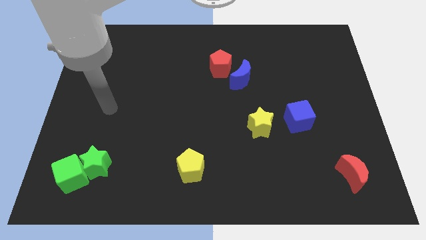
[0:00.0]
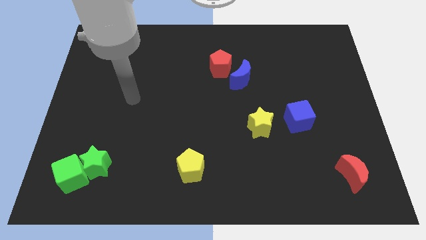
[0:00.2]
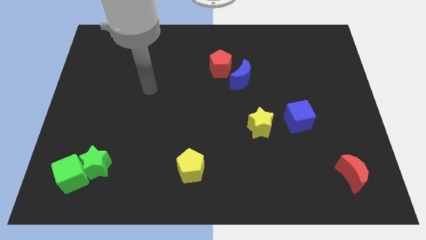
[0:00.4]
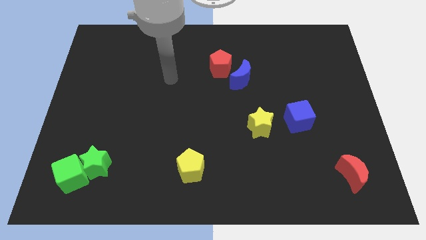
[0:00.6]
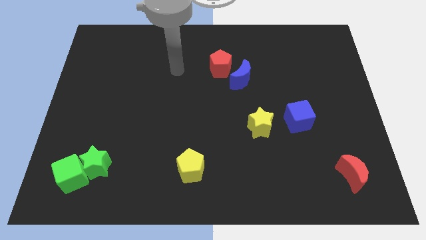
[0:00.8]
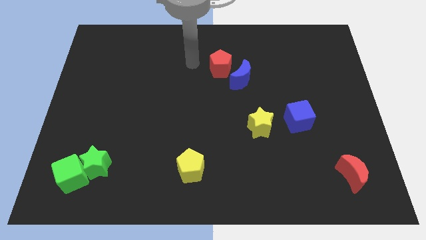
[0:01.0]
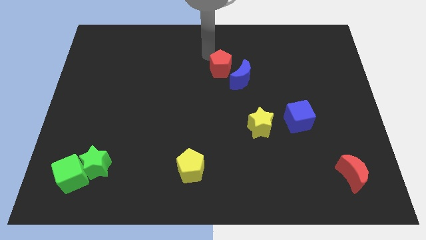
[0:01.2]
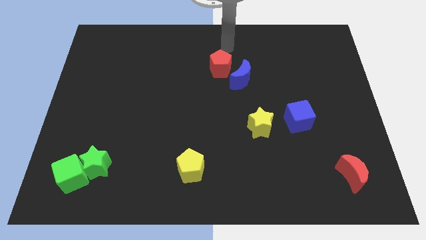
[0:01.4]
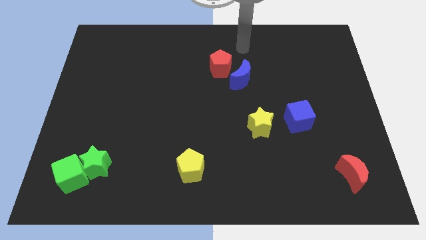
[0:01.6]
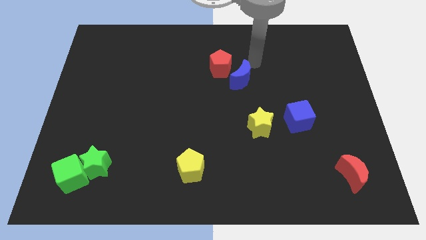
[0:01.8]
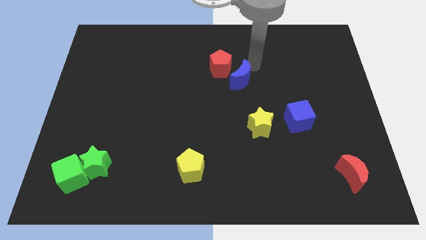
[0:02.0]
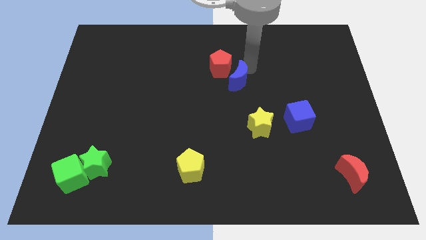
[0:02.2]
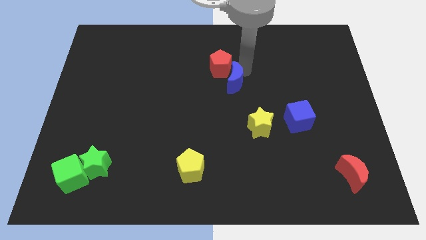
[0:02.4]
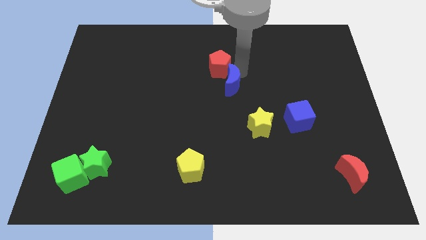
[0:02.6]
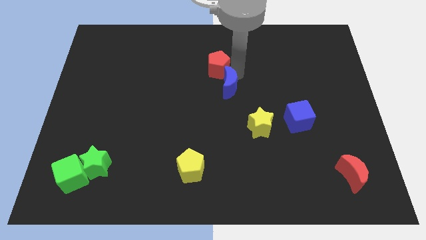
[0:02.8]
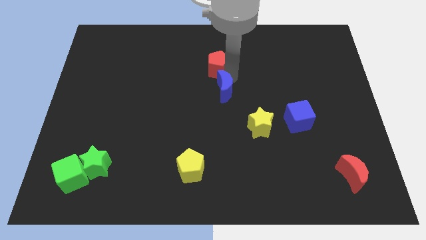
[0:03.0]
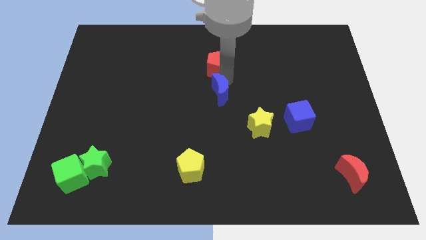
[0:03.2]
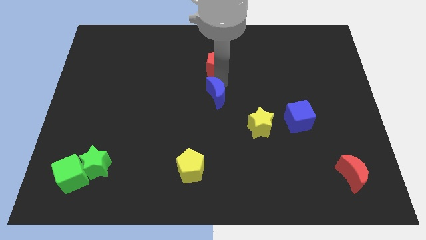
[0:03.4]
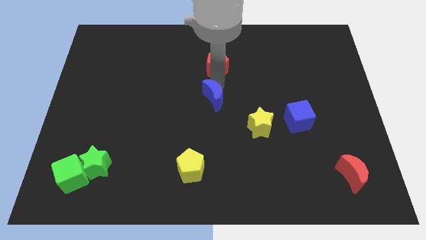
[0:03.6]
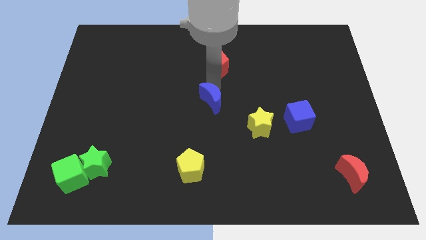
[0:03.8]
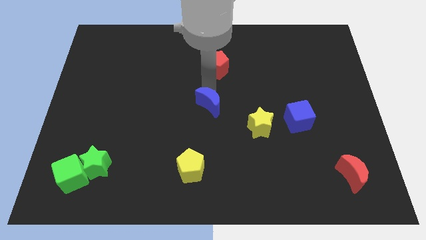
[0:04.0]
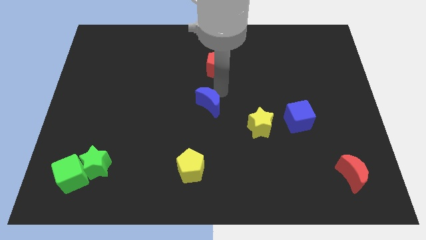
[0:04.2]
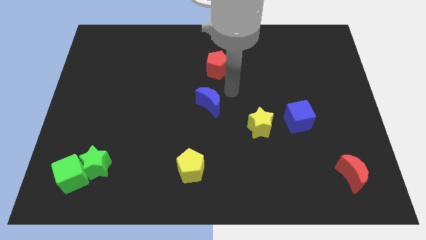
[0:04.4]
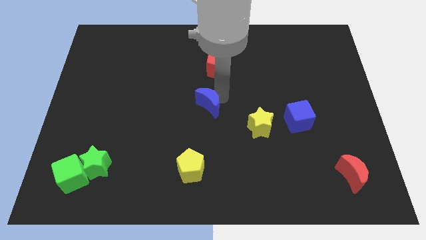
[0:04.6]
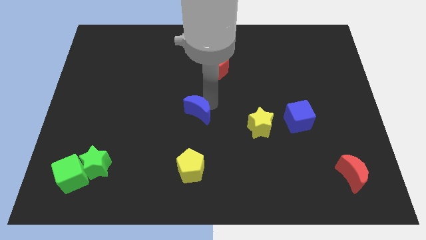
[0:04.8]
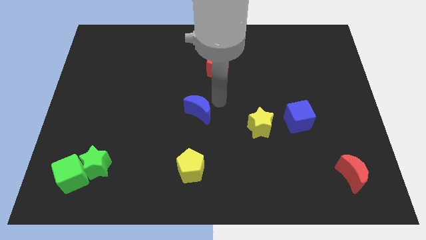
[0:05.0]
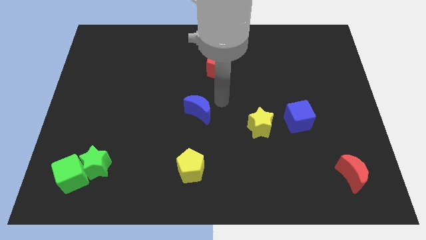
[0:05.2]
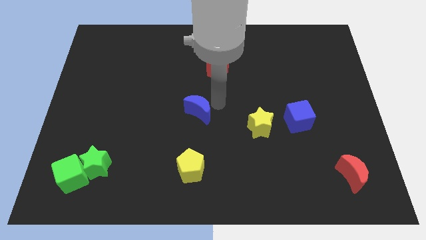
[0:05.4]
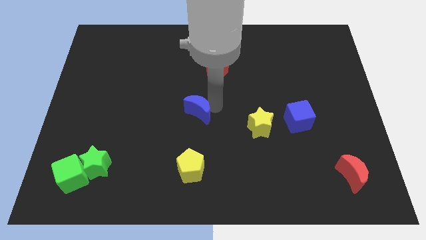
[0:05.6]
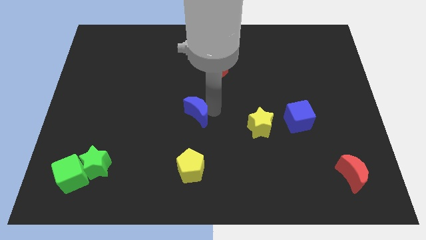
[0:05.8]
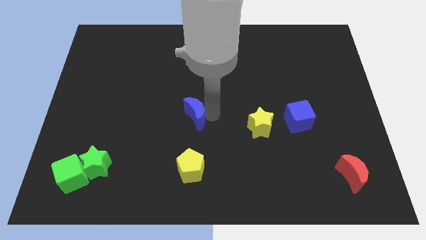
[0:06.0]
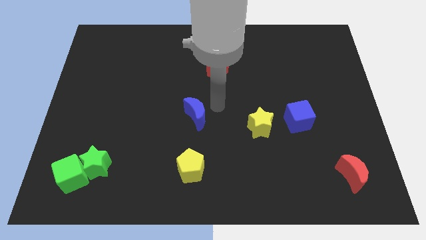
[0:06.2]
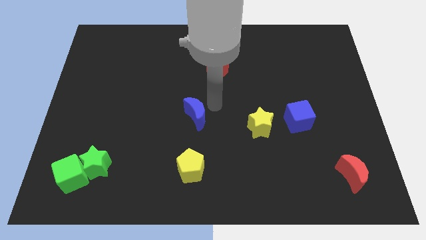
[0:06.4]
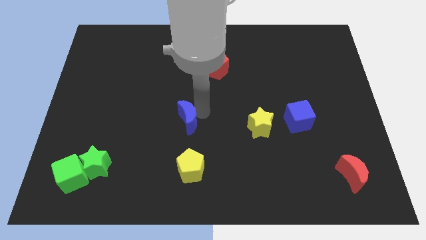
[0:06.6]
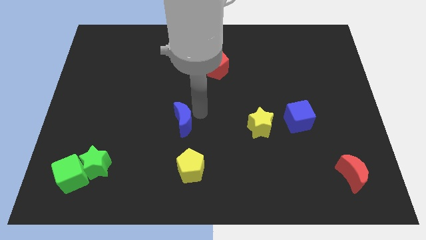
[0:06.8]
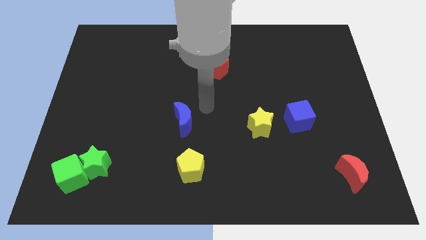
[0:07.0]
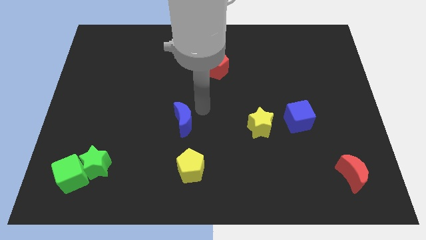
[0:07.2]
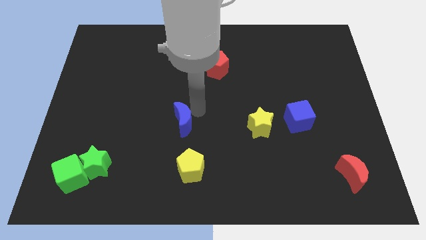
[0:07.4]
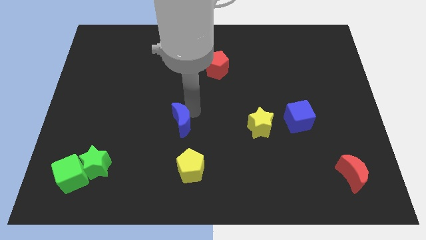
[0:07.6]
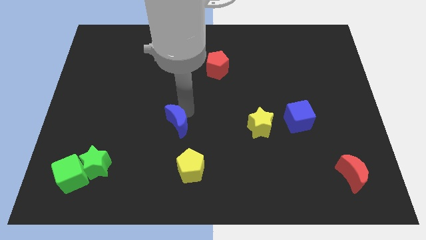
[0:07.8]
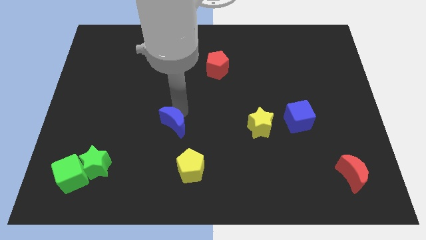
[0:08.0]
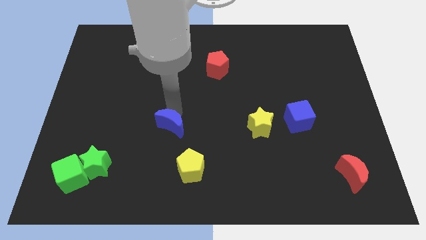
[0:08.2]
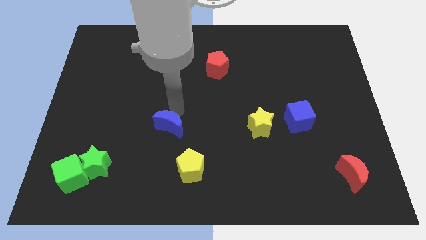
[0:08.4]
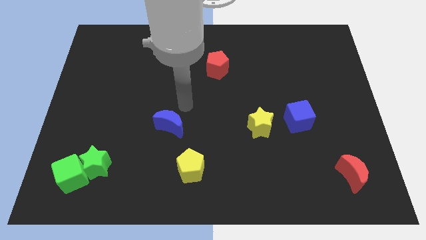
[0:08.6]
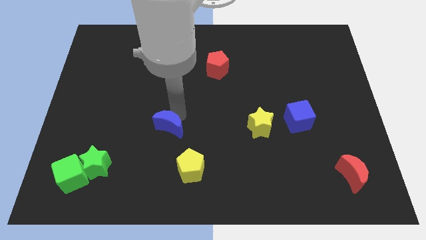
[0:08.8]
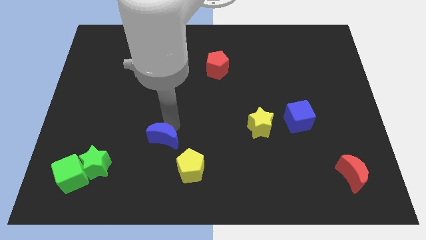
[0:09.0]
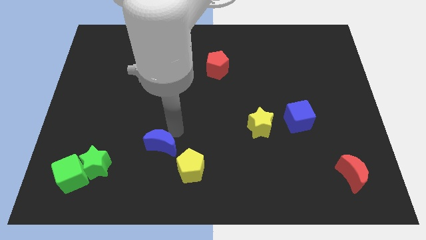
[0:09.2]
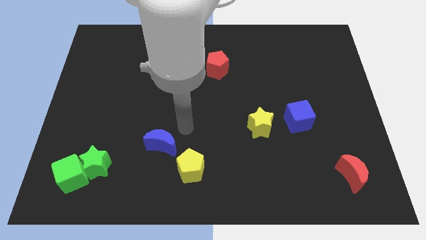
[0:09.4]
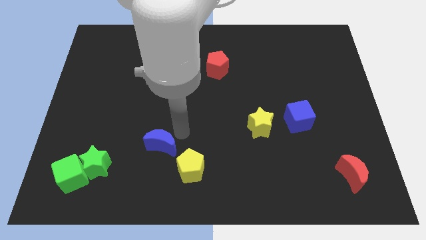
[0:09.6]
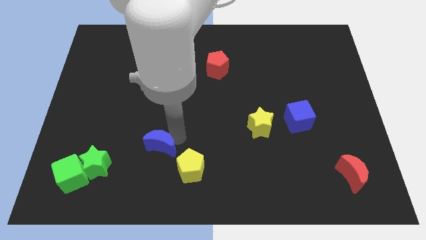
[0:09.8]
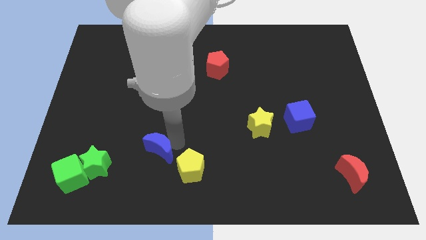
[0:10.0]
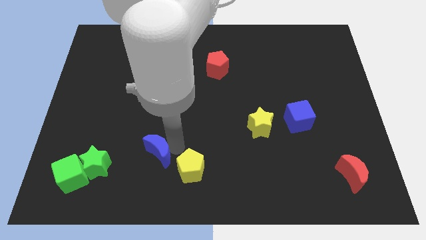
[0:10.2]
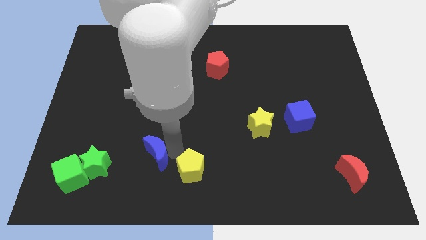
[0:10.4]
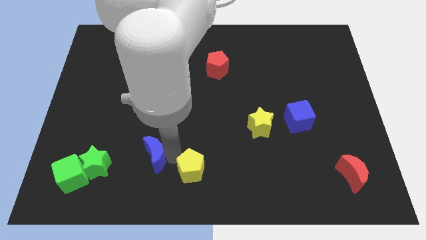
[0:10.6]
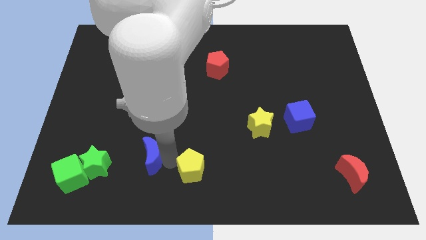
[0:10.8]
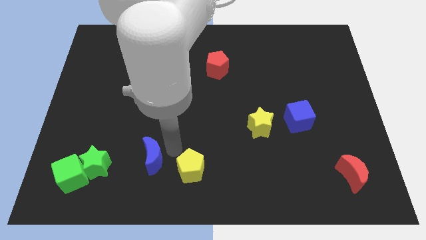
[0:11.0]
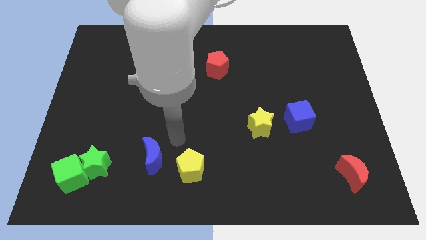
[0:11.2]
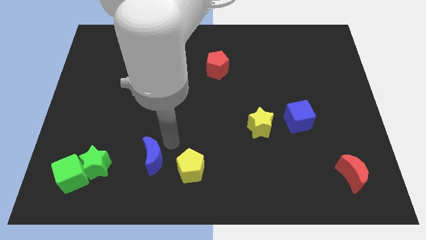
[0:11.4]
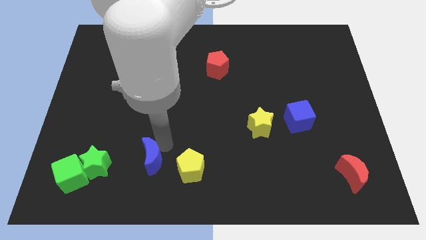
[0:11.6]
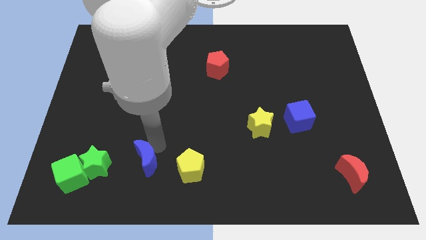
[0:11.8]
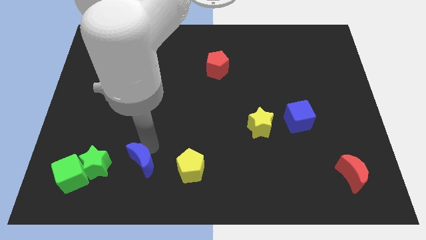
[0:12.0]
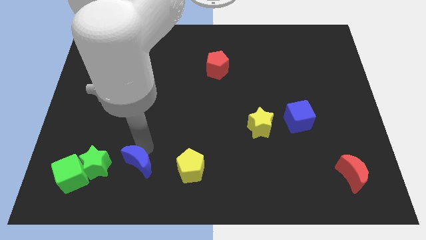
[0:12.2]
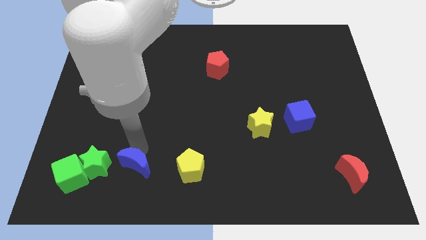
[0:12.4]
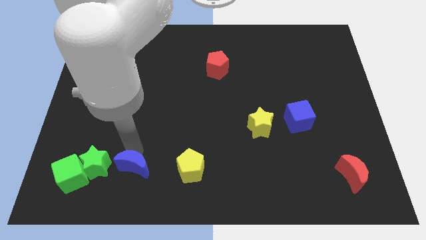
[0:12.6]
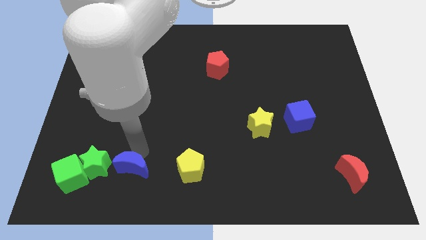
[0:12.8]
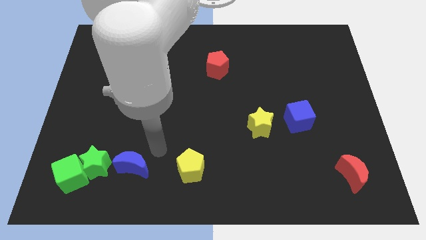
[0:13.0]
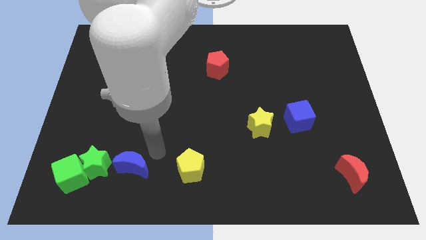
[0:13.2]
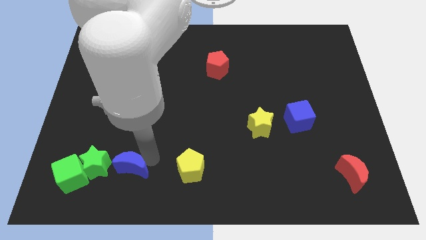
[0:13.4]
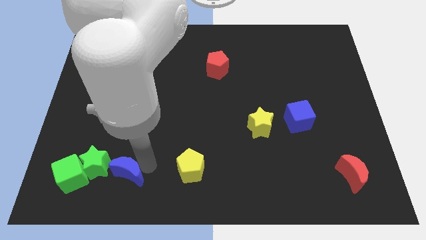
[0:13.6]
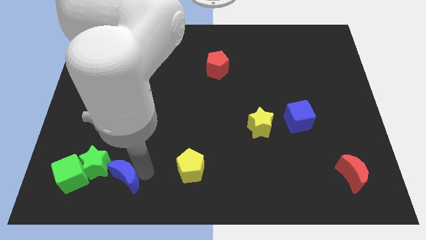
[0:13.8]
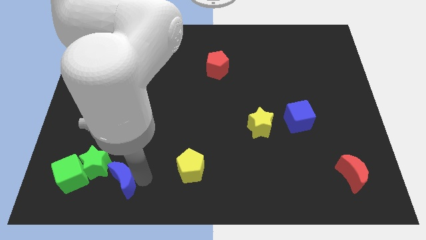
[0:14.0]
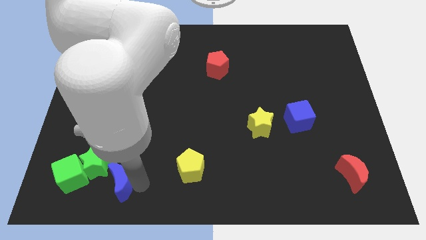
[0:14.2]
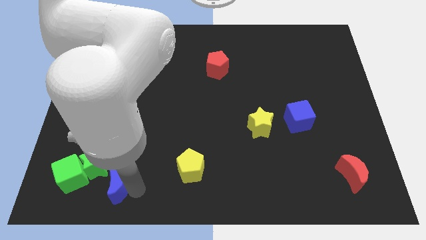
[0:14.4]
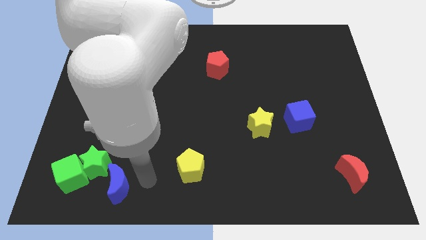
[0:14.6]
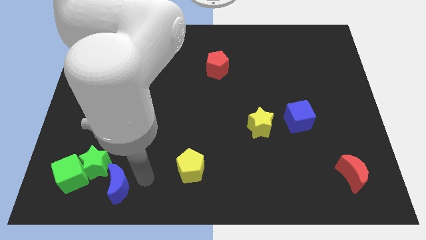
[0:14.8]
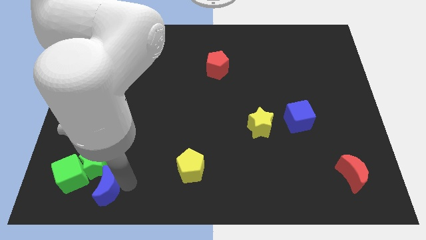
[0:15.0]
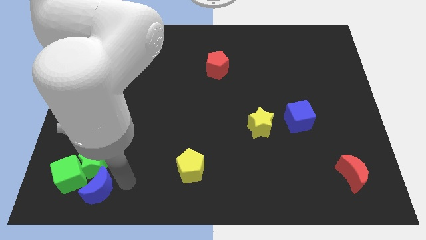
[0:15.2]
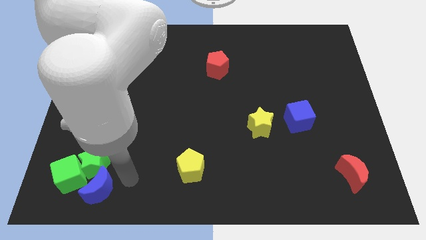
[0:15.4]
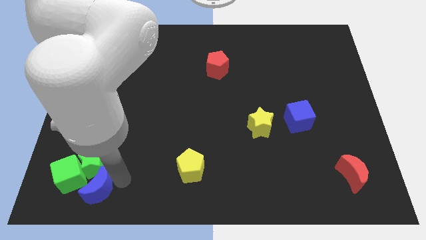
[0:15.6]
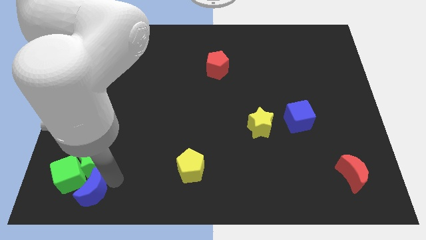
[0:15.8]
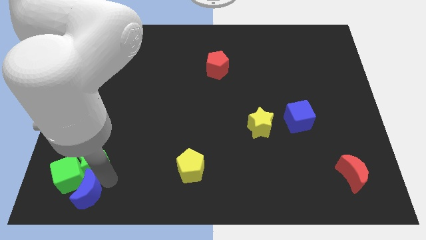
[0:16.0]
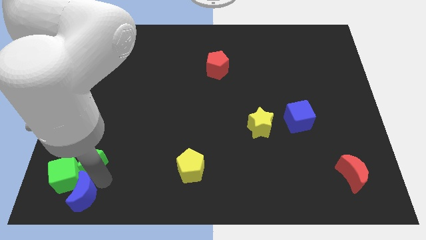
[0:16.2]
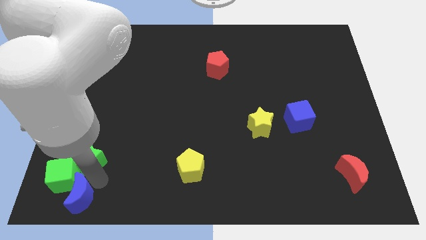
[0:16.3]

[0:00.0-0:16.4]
put the blue moon to the bottom left corner
